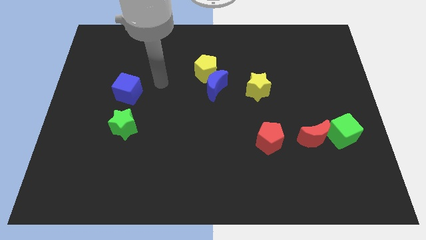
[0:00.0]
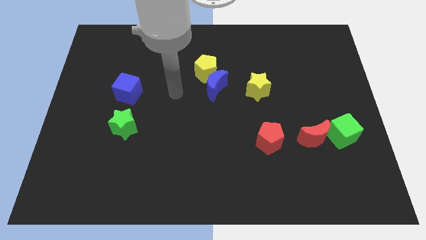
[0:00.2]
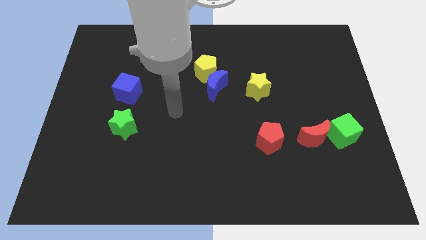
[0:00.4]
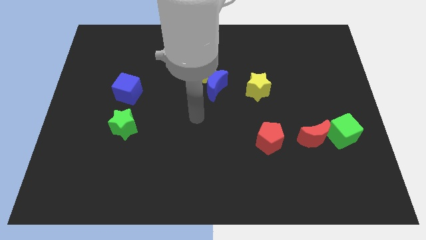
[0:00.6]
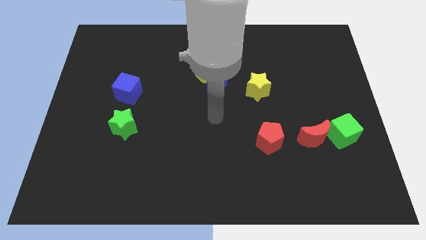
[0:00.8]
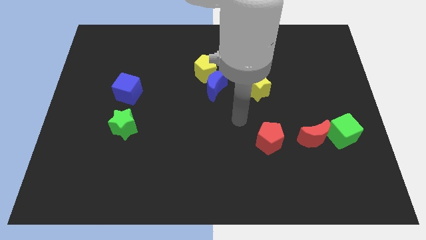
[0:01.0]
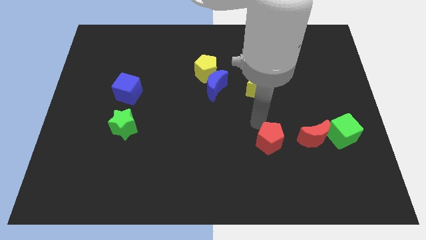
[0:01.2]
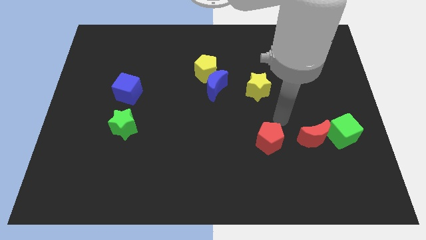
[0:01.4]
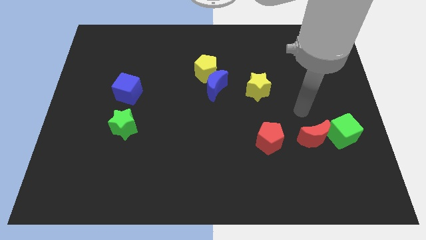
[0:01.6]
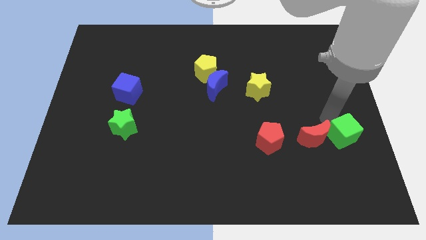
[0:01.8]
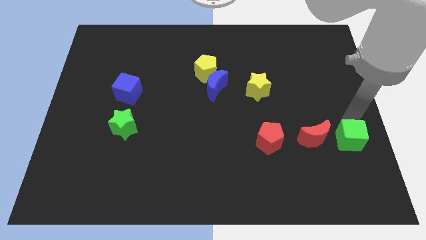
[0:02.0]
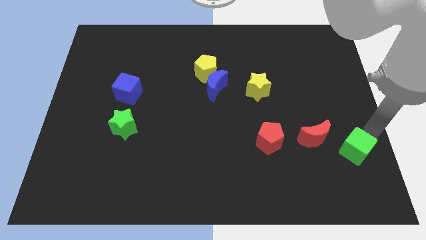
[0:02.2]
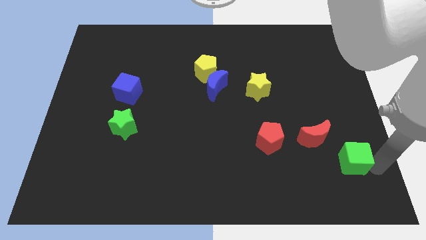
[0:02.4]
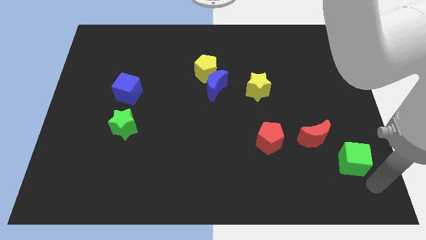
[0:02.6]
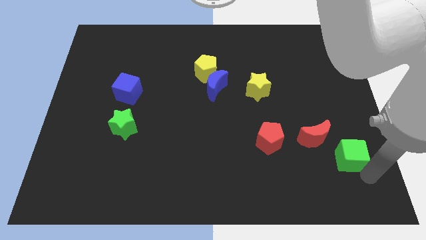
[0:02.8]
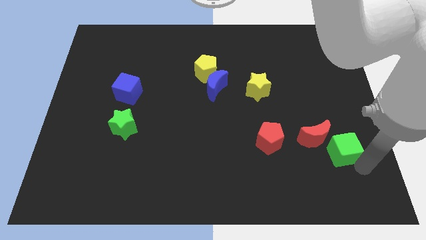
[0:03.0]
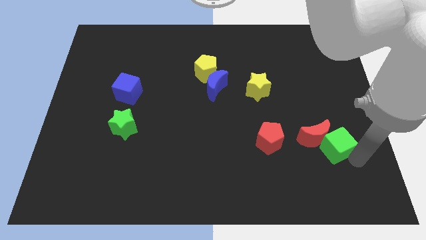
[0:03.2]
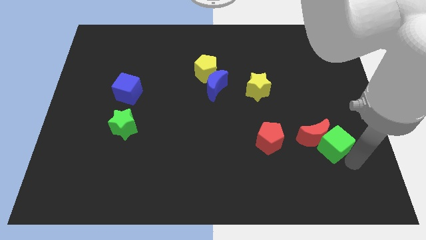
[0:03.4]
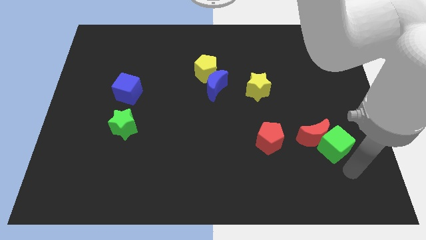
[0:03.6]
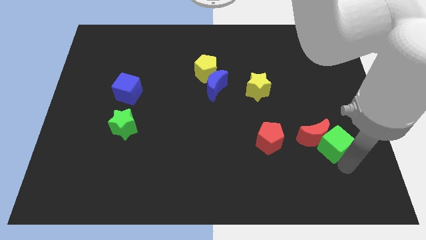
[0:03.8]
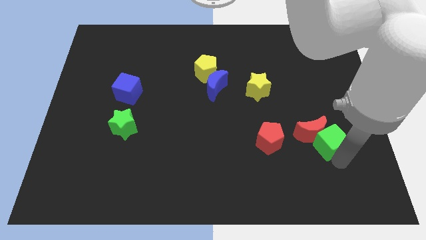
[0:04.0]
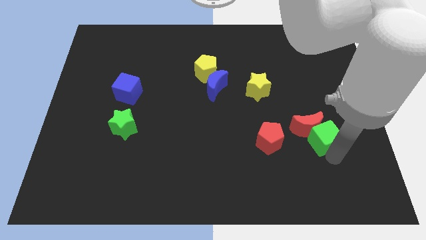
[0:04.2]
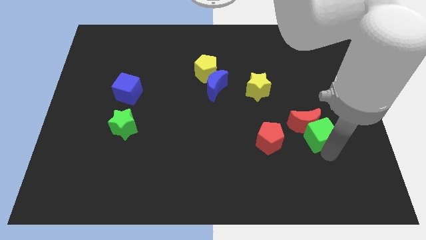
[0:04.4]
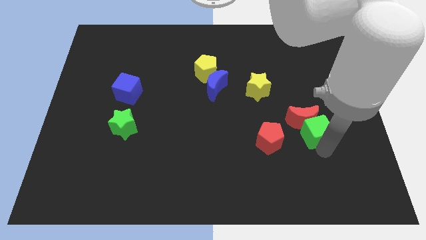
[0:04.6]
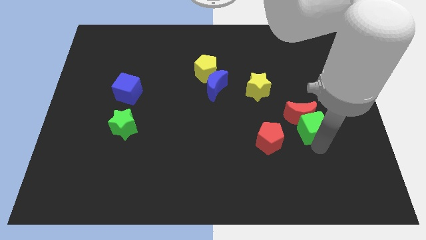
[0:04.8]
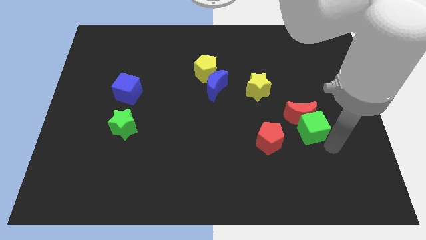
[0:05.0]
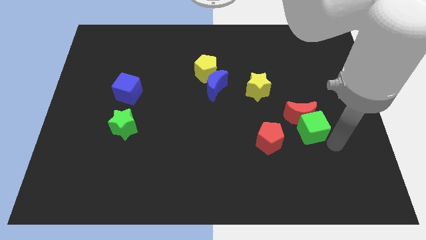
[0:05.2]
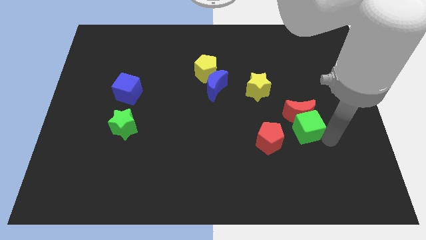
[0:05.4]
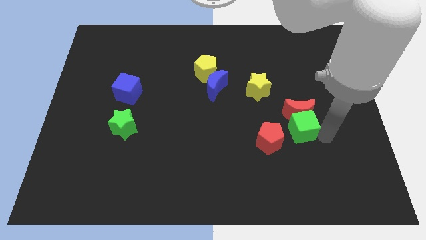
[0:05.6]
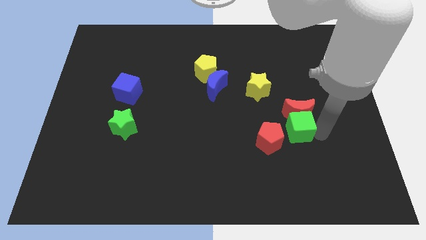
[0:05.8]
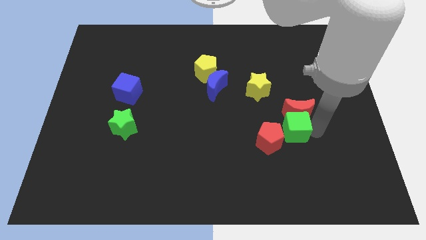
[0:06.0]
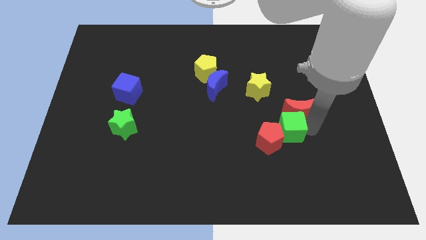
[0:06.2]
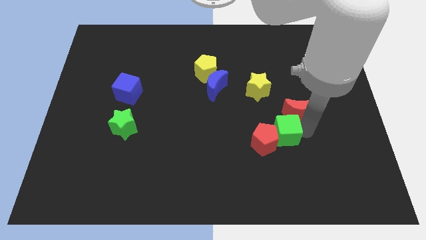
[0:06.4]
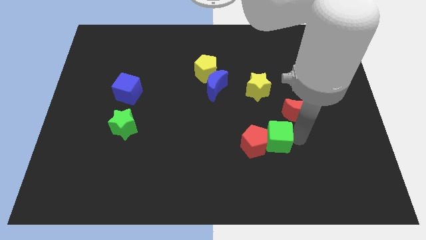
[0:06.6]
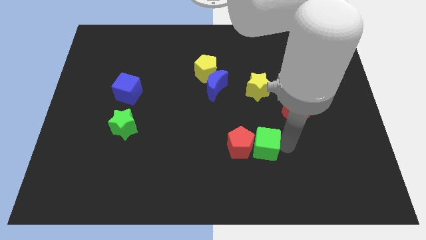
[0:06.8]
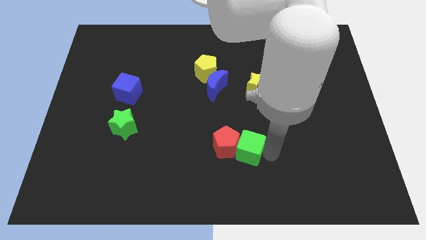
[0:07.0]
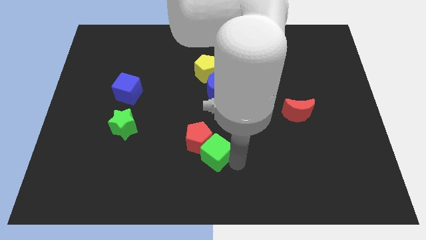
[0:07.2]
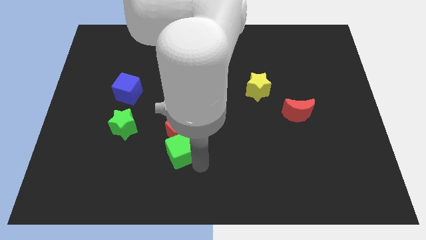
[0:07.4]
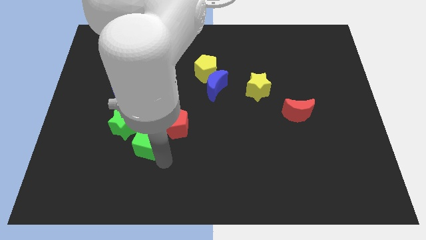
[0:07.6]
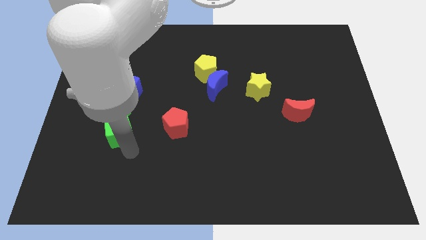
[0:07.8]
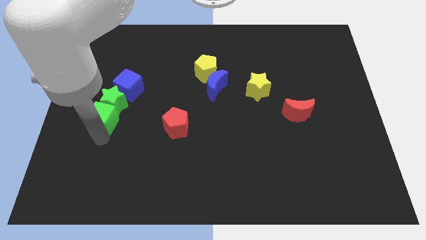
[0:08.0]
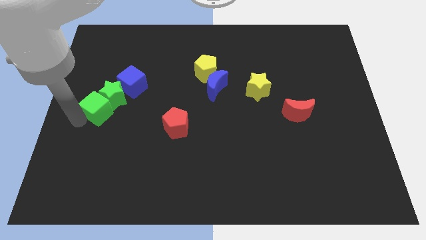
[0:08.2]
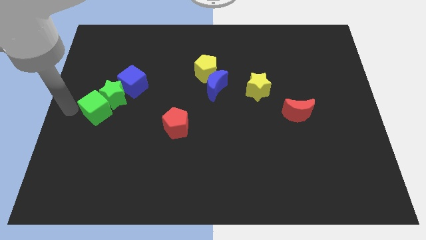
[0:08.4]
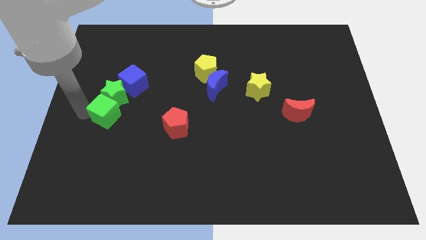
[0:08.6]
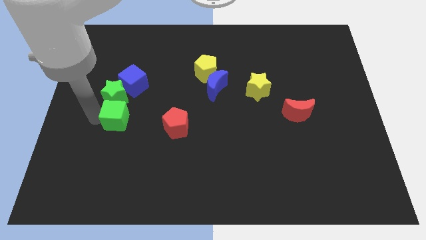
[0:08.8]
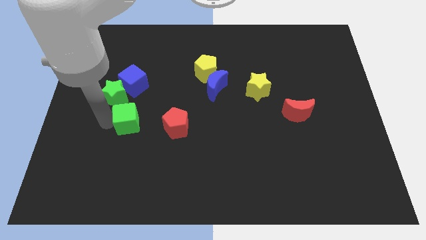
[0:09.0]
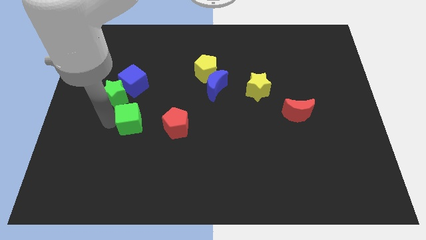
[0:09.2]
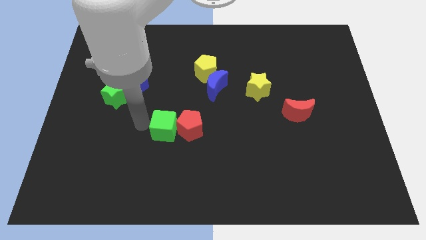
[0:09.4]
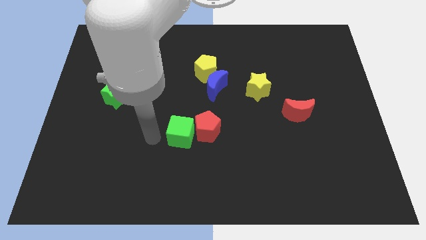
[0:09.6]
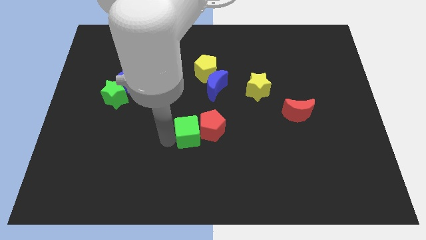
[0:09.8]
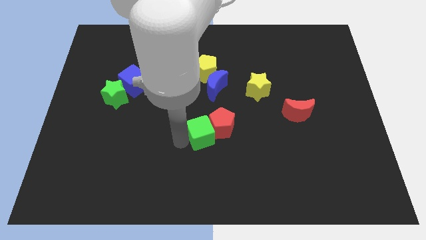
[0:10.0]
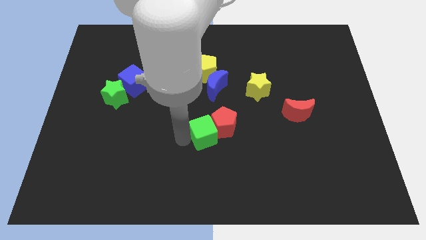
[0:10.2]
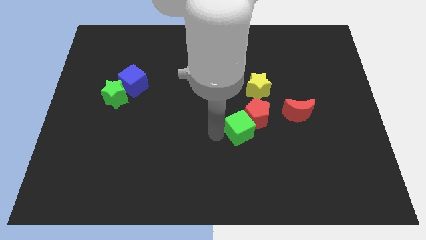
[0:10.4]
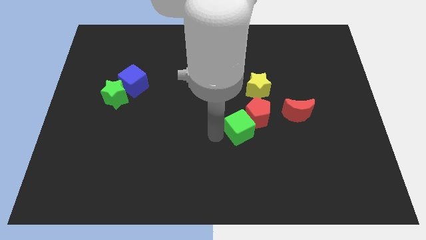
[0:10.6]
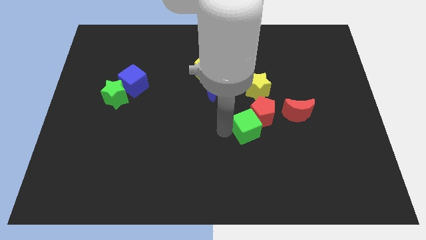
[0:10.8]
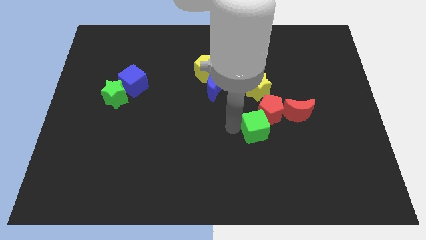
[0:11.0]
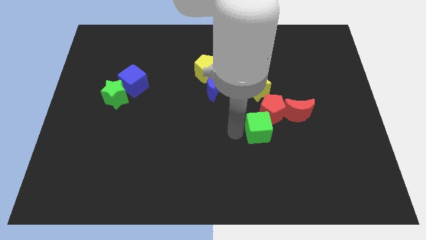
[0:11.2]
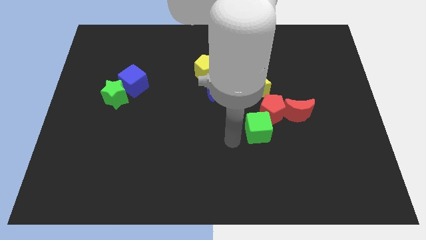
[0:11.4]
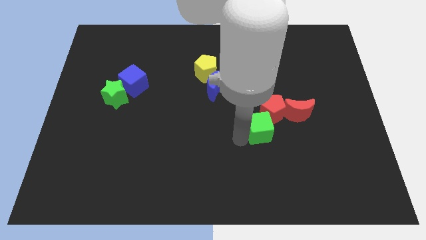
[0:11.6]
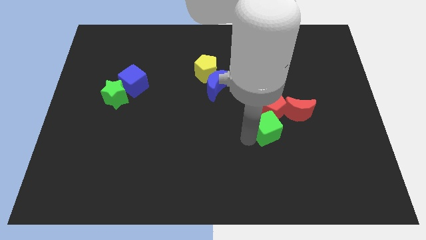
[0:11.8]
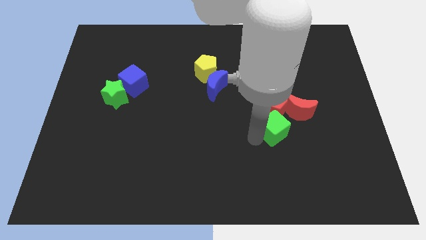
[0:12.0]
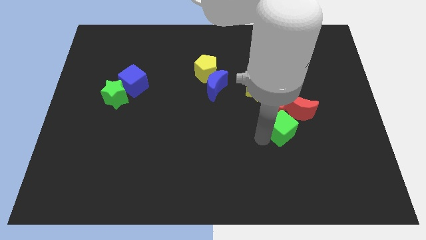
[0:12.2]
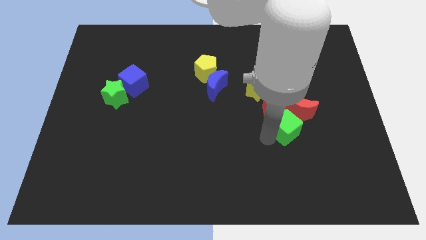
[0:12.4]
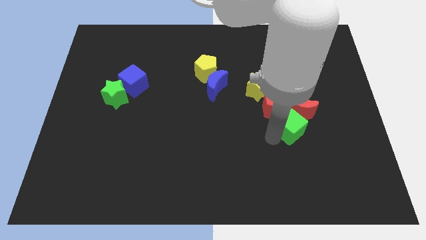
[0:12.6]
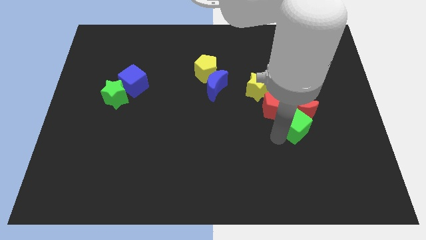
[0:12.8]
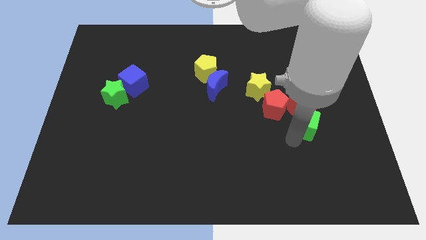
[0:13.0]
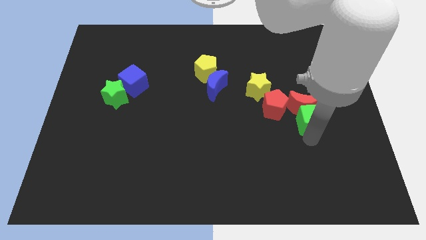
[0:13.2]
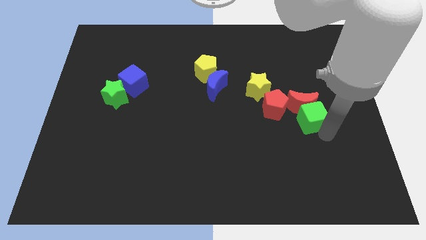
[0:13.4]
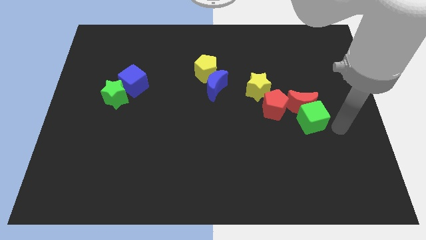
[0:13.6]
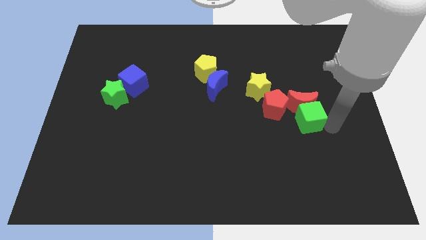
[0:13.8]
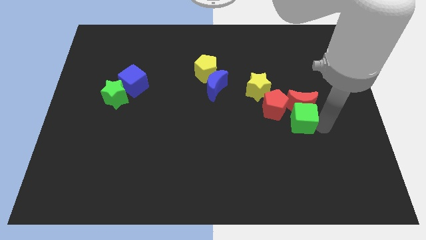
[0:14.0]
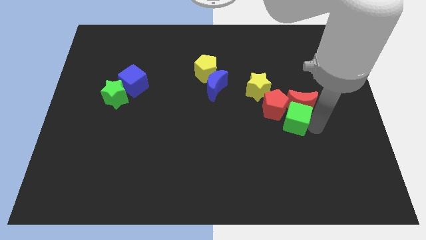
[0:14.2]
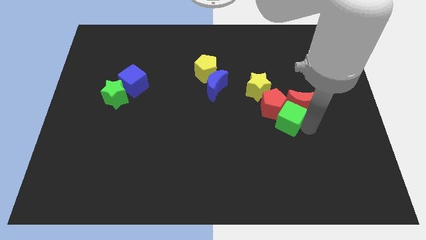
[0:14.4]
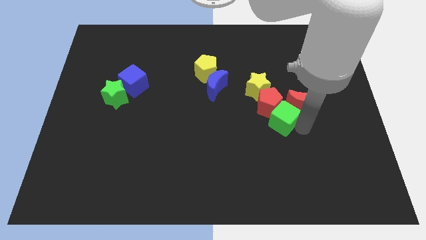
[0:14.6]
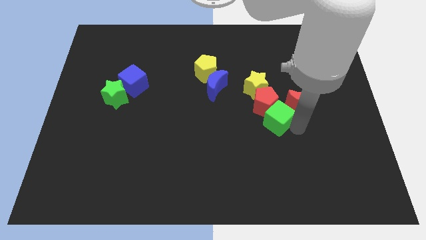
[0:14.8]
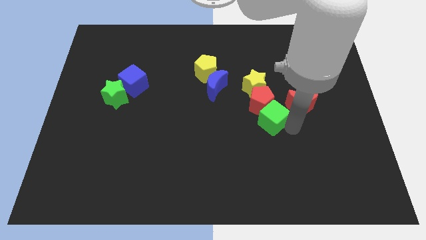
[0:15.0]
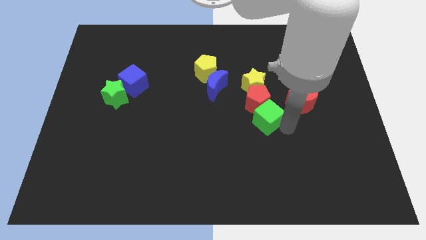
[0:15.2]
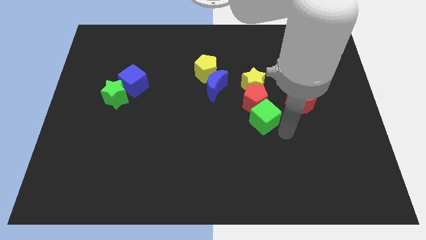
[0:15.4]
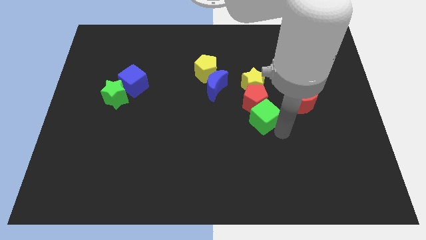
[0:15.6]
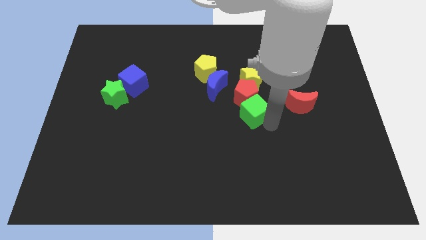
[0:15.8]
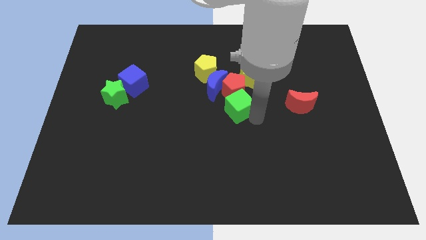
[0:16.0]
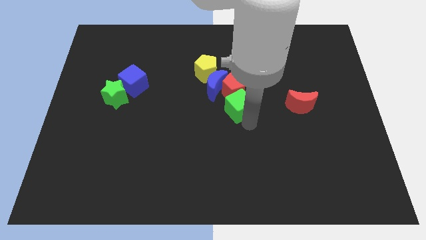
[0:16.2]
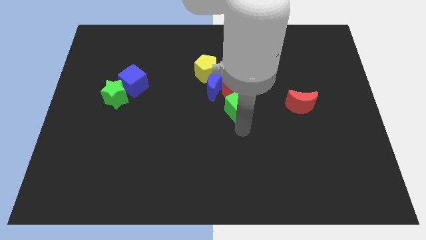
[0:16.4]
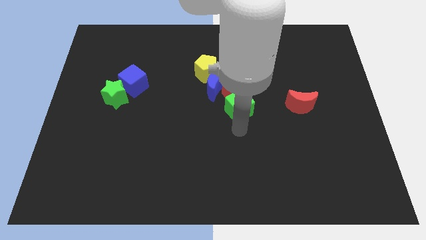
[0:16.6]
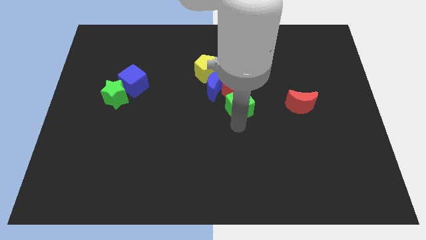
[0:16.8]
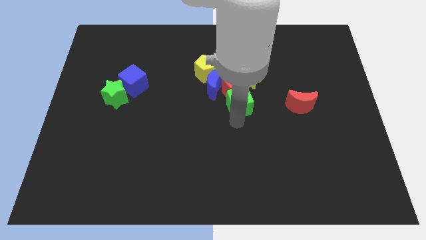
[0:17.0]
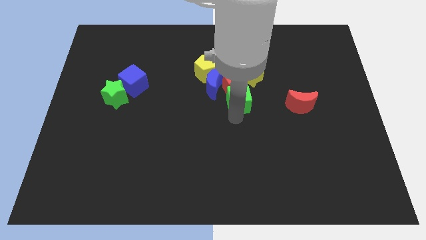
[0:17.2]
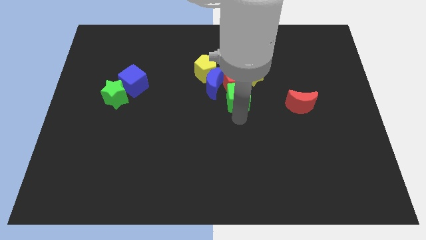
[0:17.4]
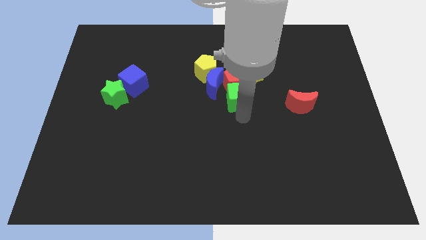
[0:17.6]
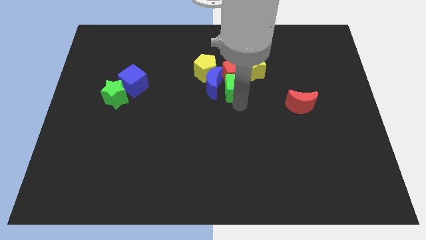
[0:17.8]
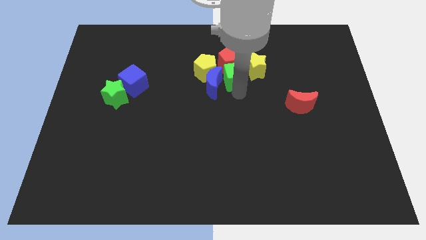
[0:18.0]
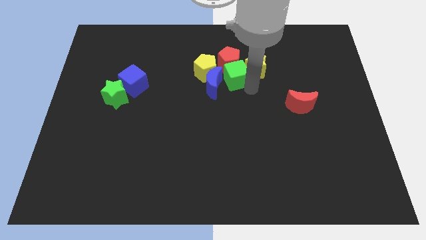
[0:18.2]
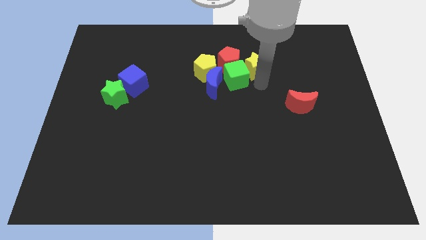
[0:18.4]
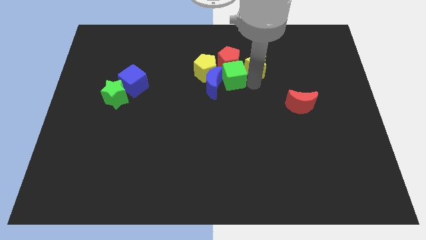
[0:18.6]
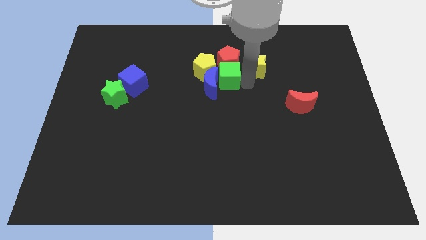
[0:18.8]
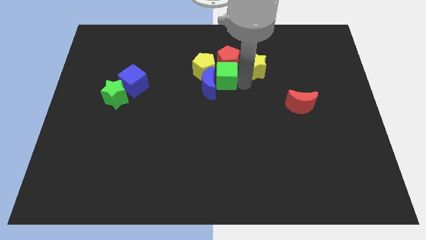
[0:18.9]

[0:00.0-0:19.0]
move the green cube next to the yellow pentagon
